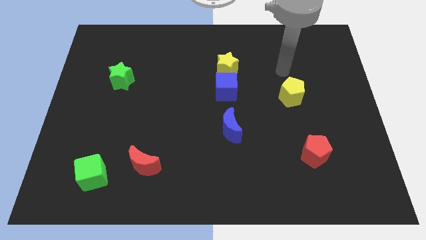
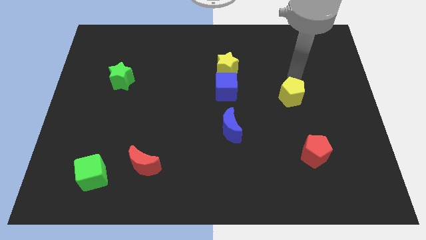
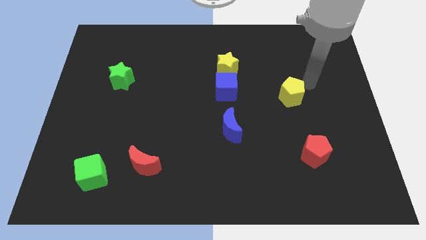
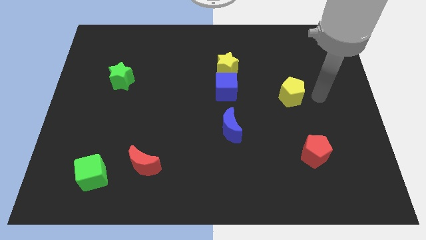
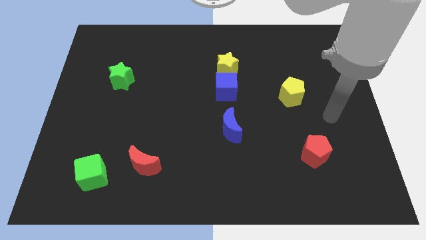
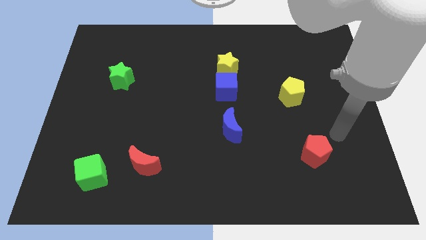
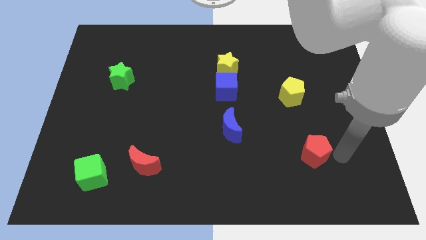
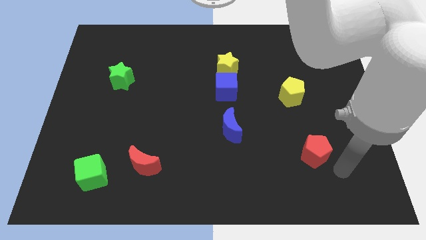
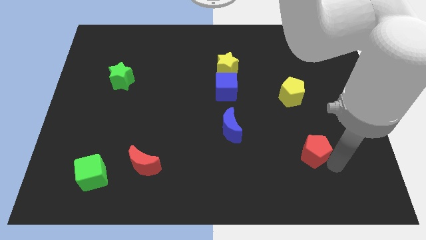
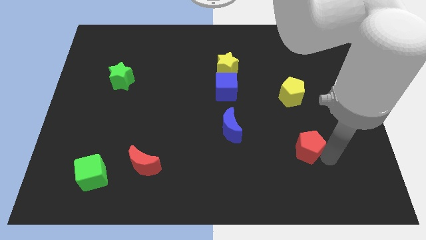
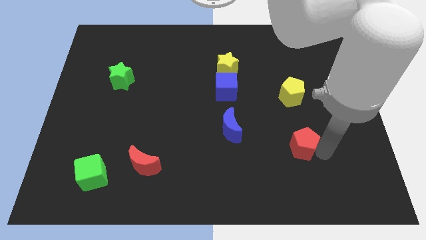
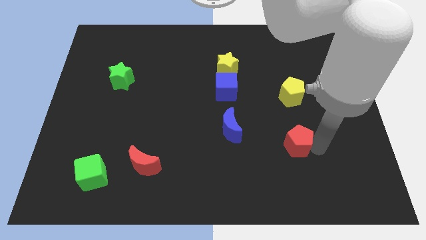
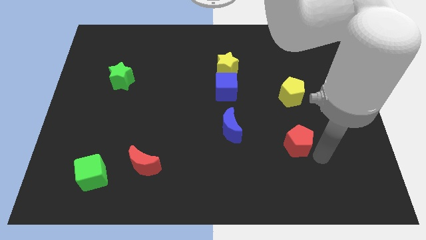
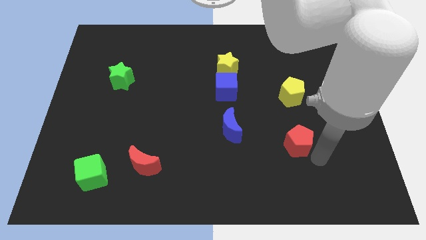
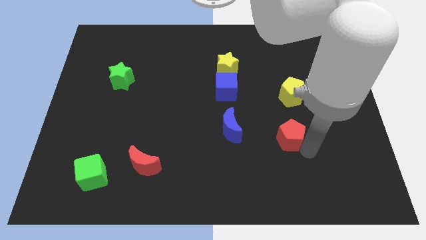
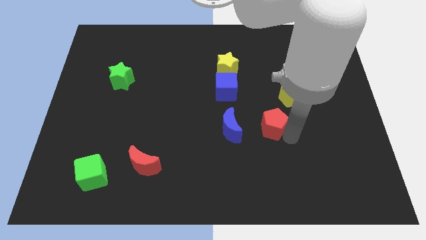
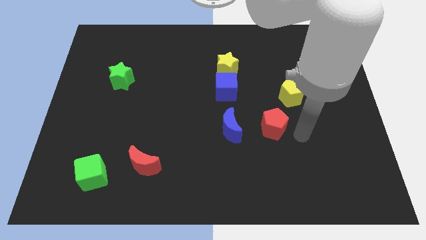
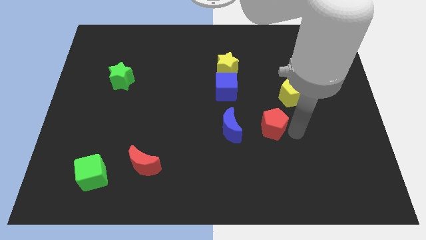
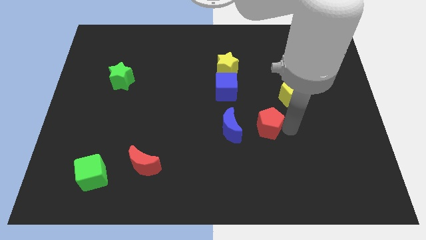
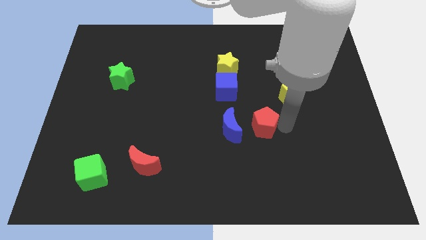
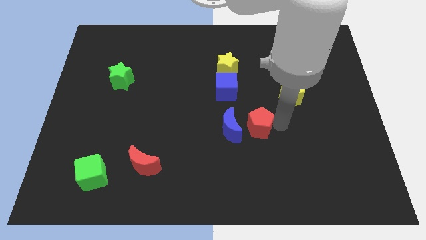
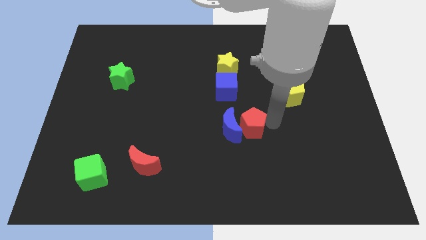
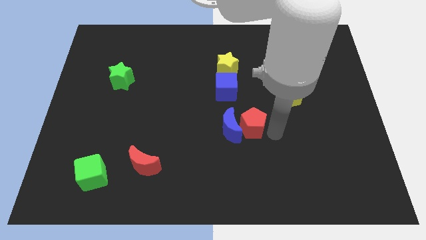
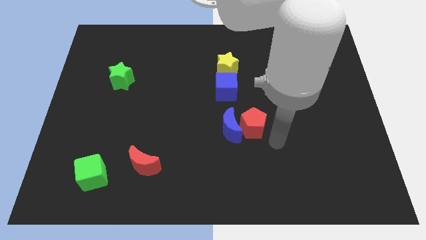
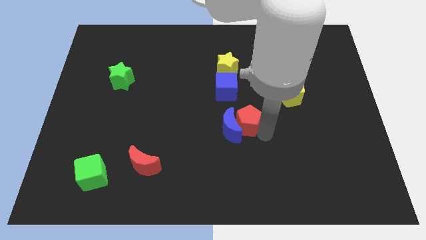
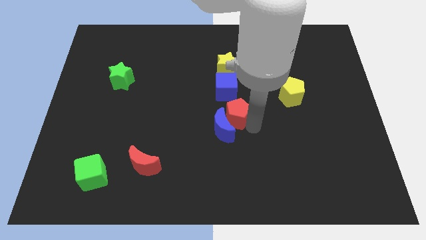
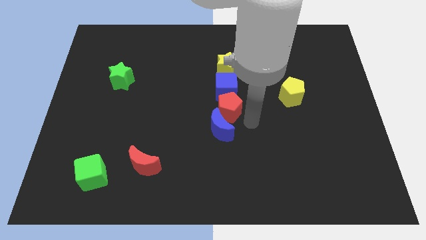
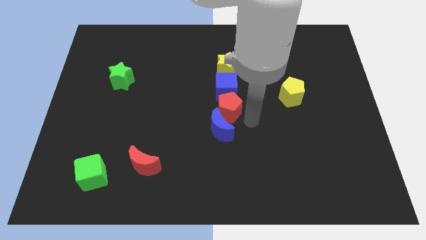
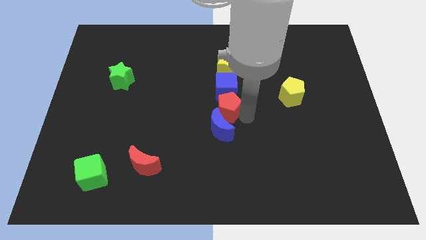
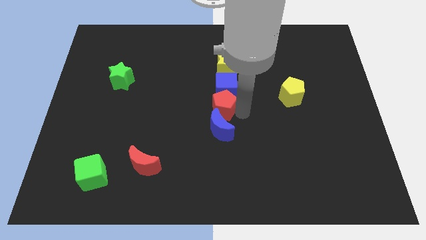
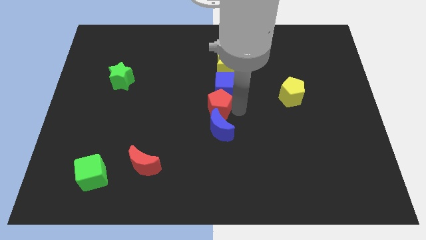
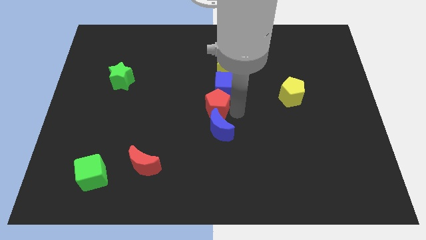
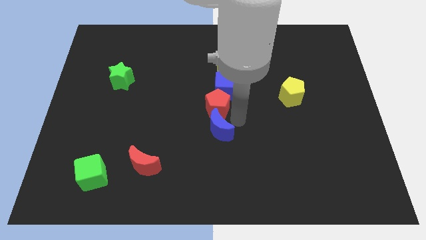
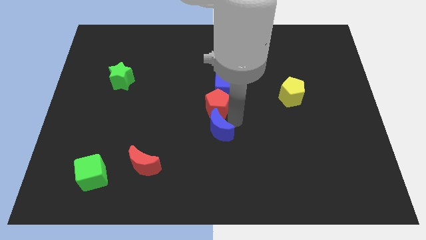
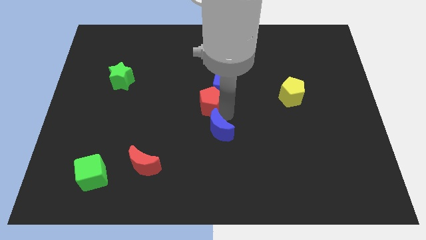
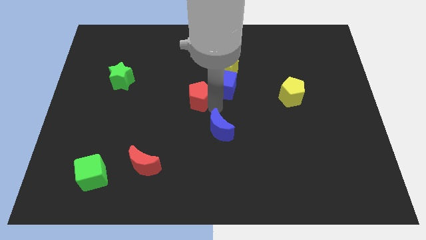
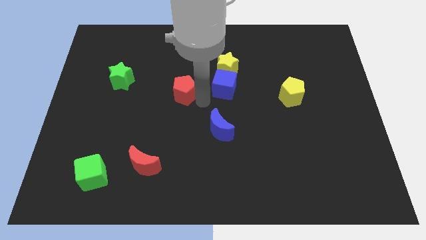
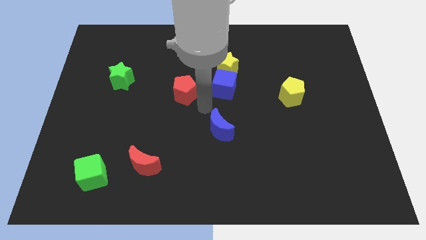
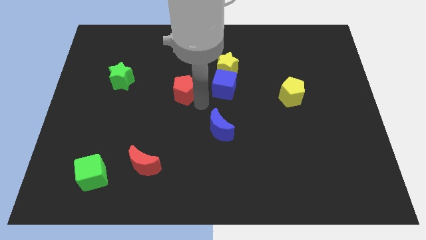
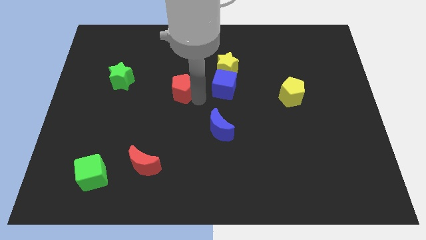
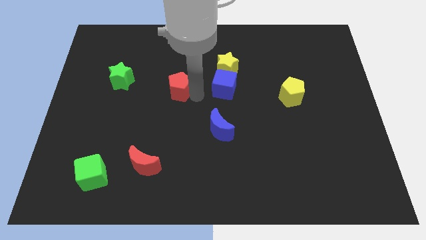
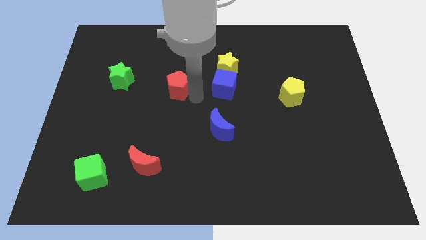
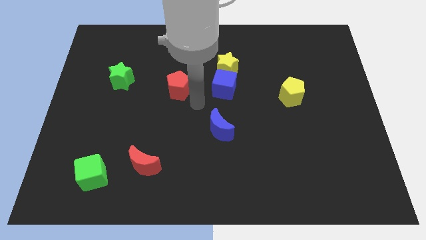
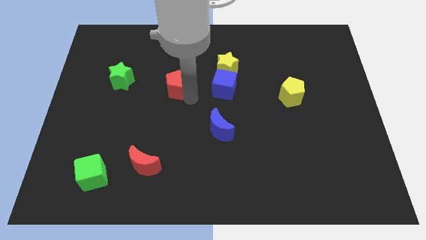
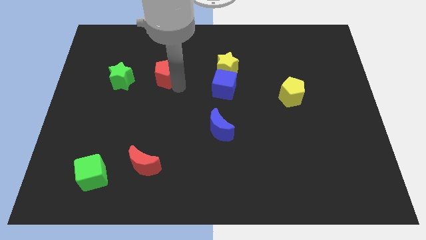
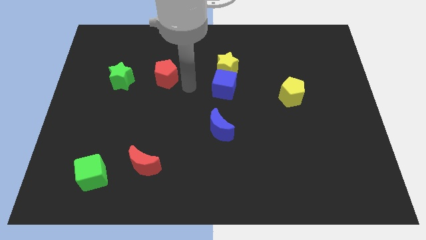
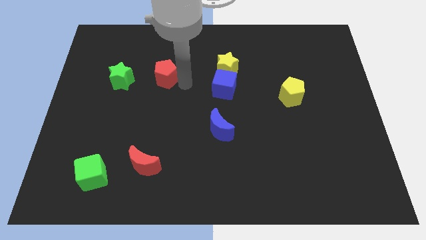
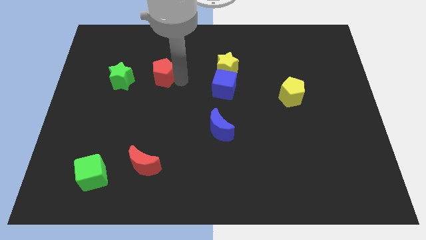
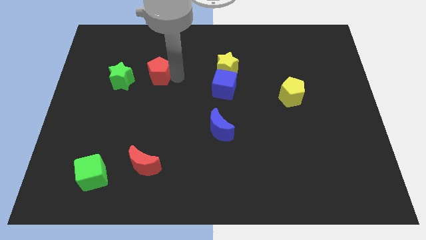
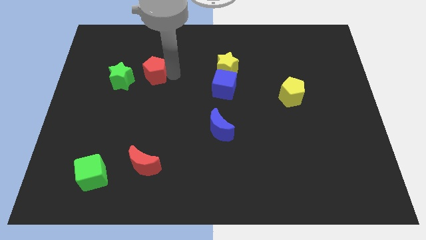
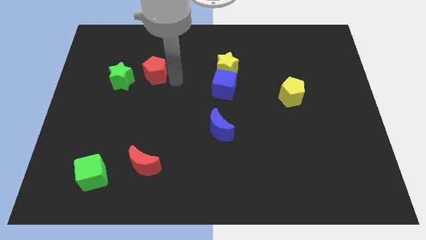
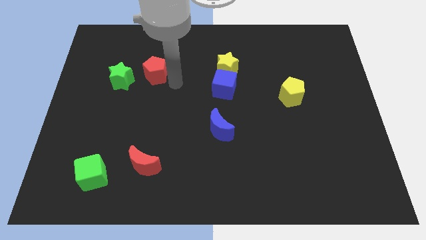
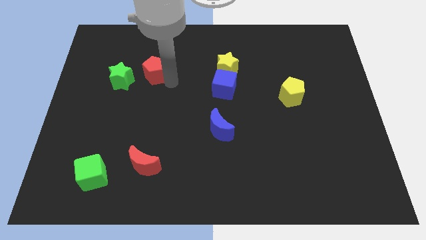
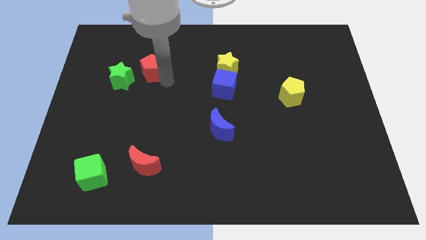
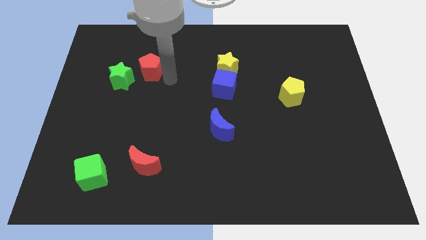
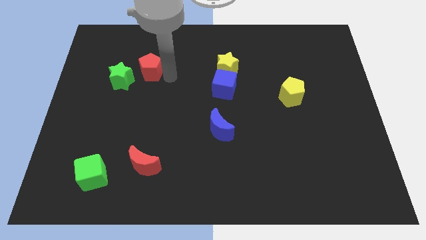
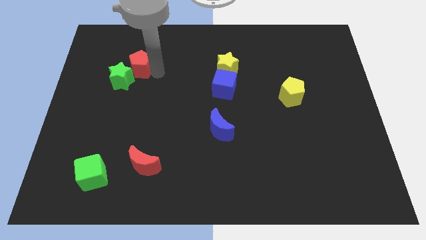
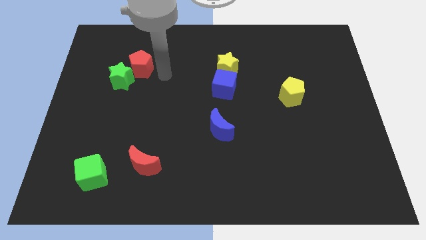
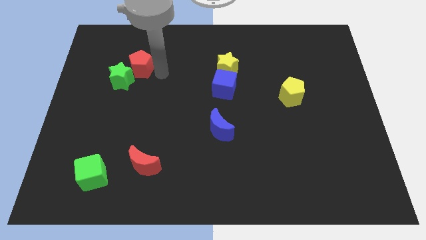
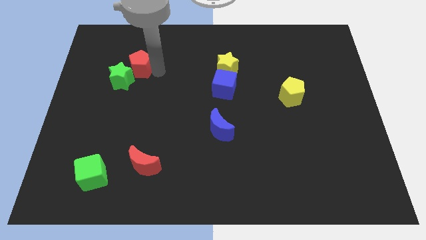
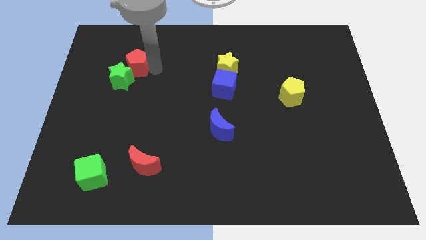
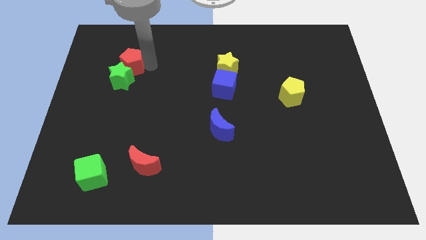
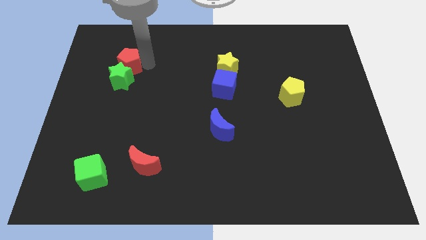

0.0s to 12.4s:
move the red pentagon to the top left side of the green star

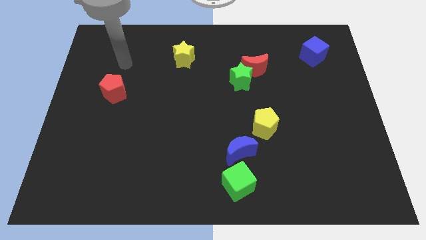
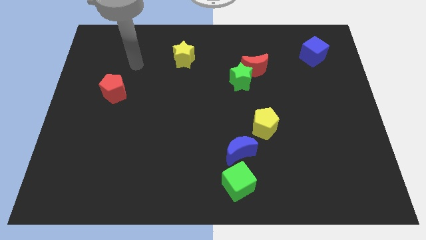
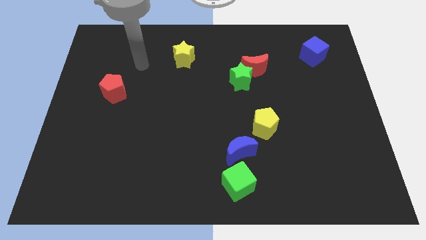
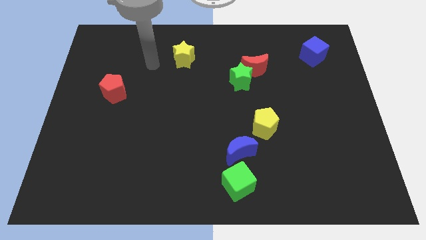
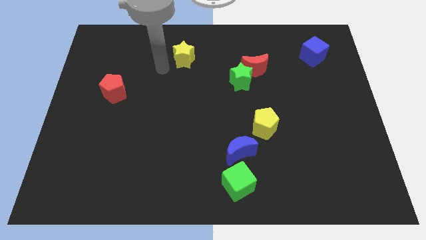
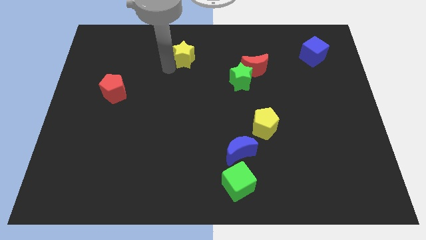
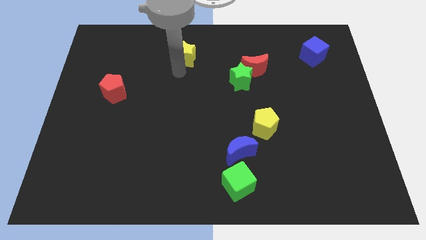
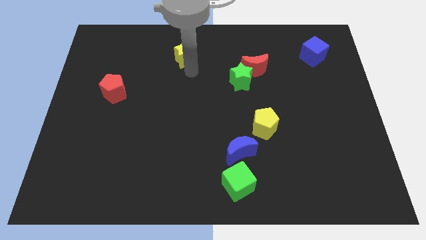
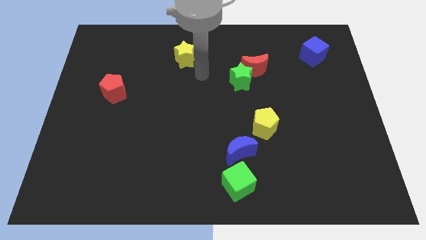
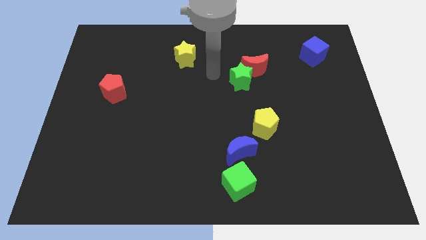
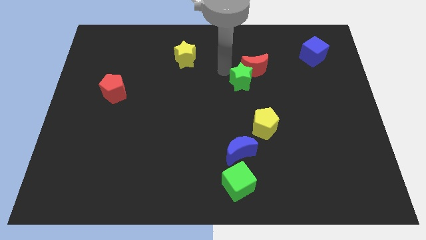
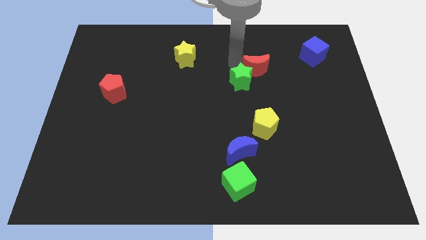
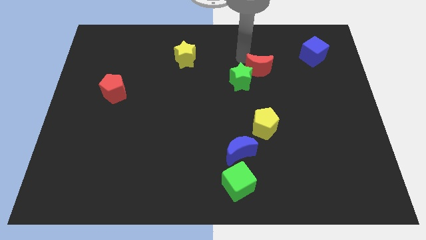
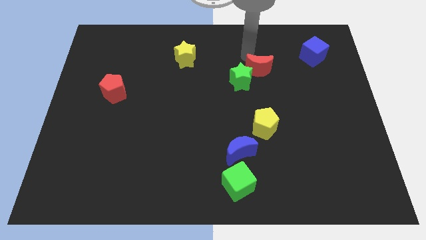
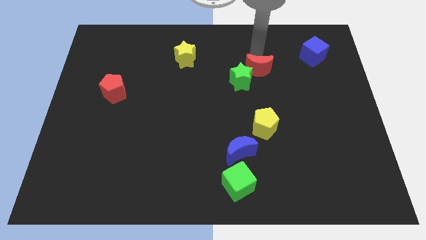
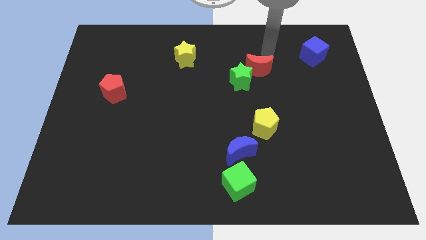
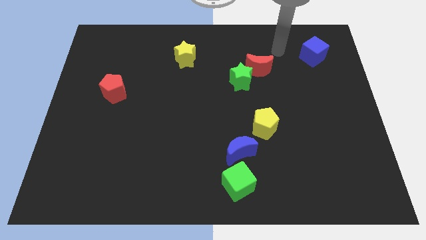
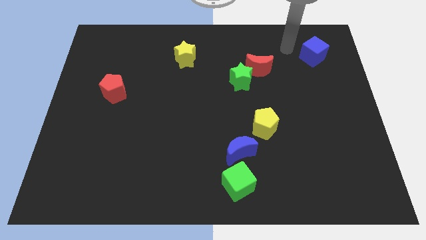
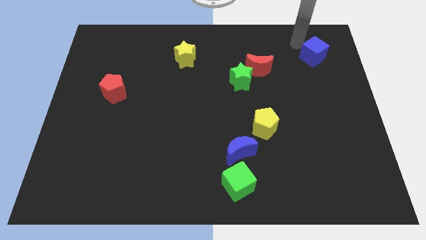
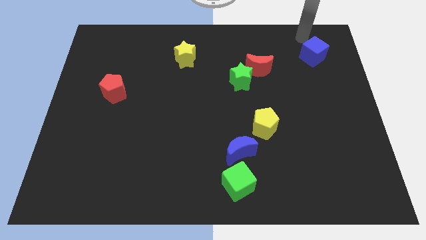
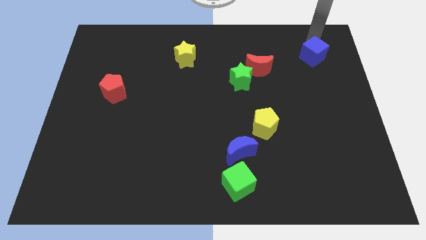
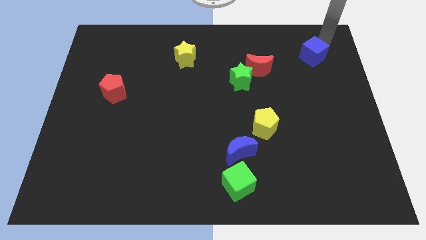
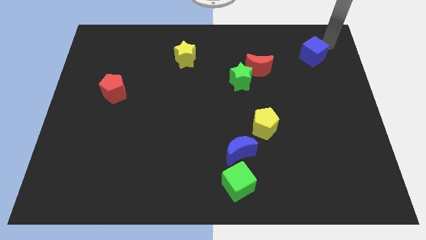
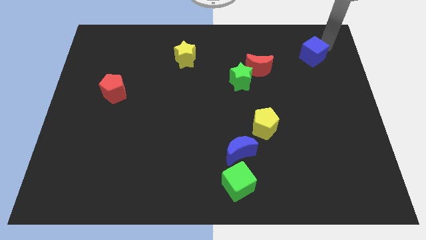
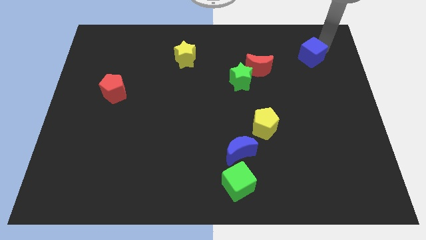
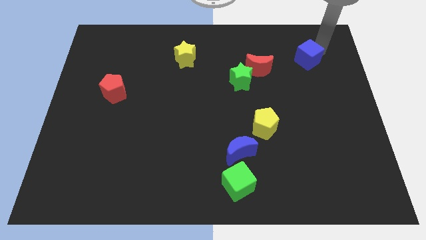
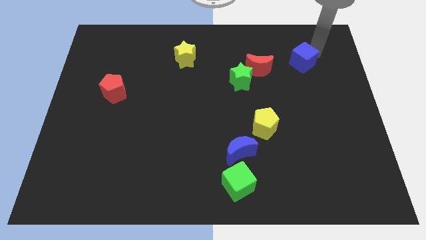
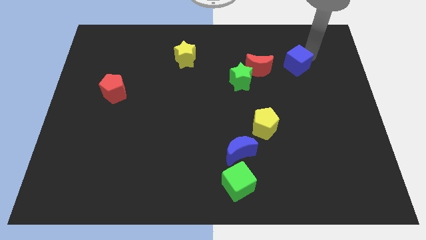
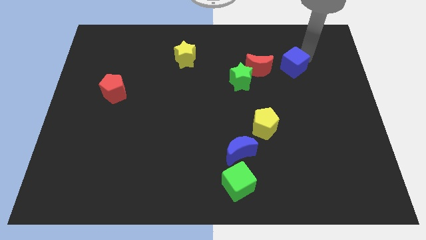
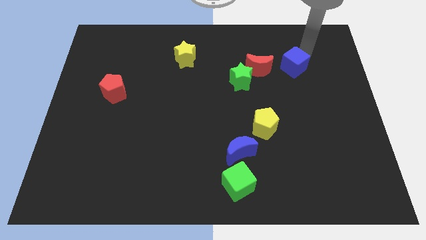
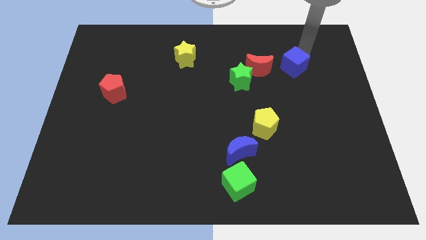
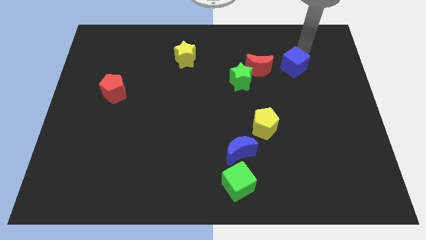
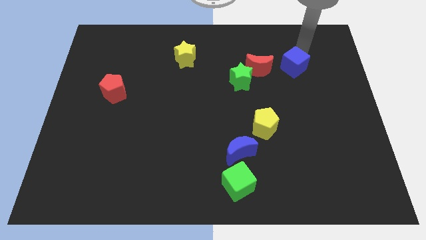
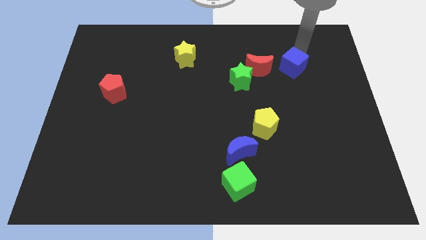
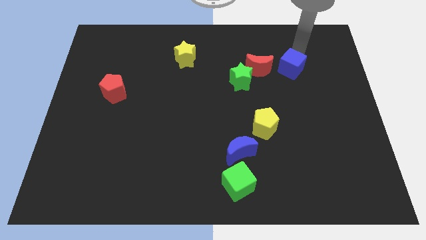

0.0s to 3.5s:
slide the blue cube right of the green star
